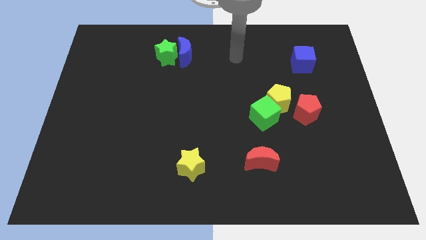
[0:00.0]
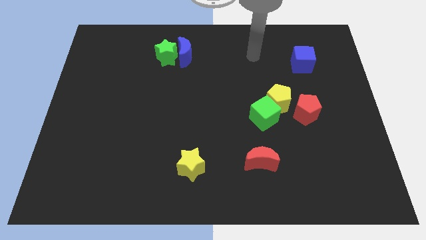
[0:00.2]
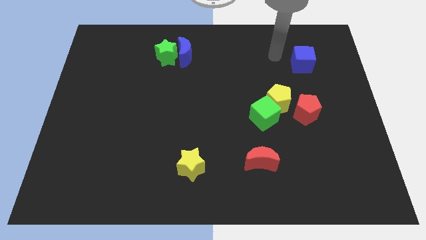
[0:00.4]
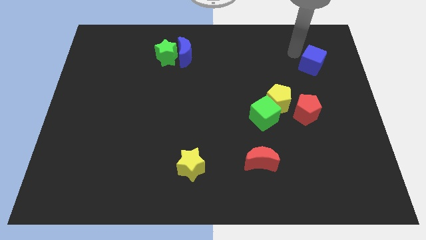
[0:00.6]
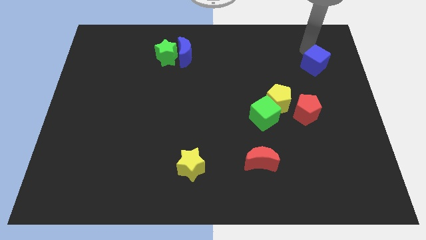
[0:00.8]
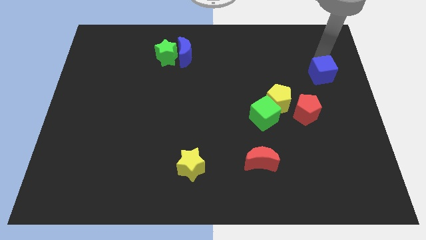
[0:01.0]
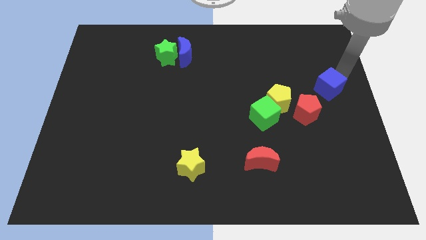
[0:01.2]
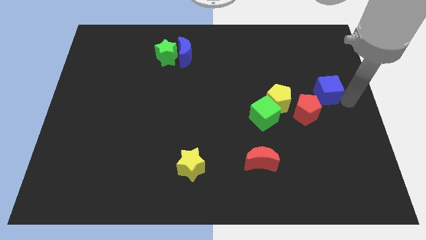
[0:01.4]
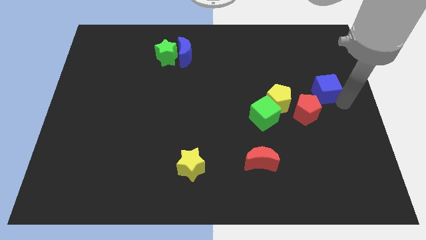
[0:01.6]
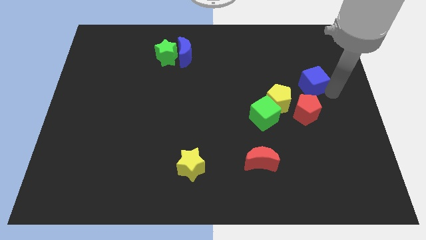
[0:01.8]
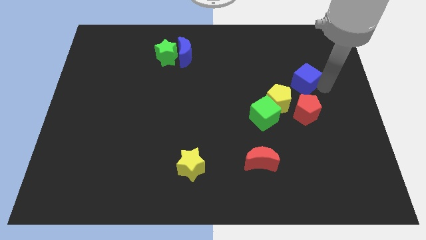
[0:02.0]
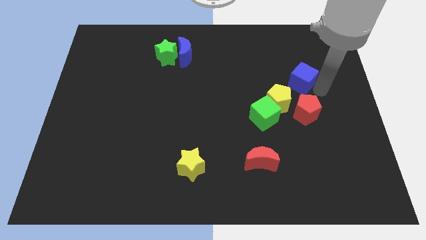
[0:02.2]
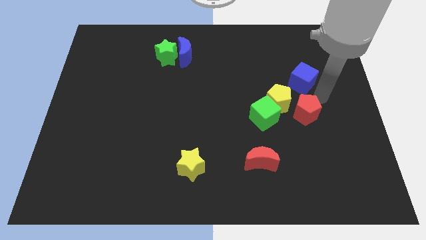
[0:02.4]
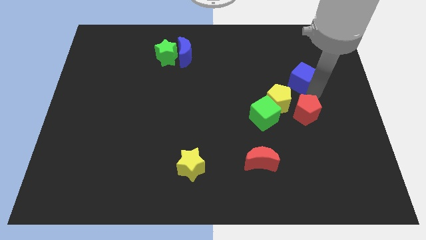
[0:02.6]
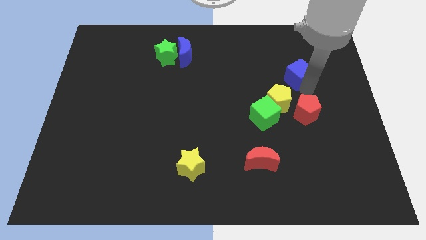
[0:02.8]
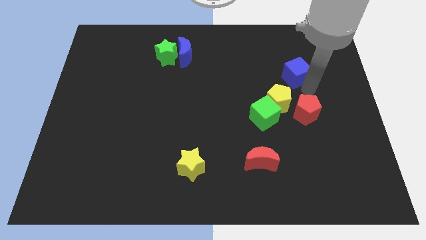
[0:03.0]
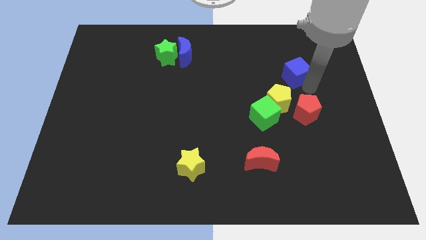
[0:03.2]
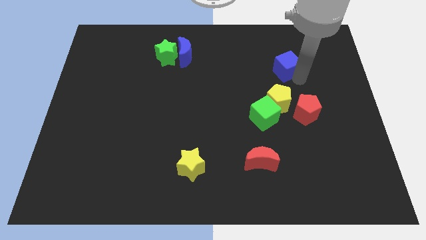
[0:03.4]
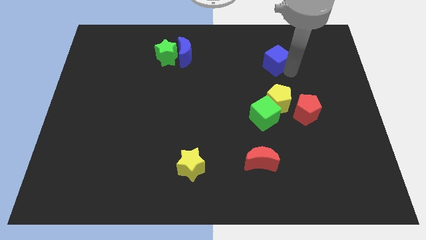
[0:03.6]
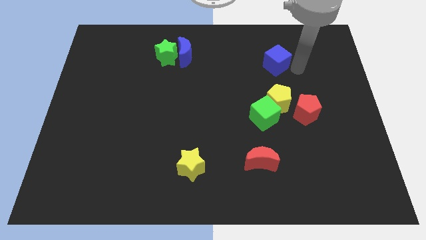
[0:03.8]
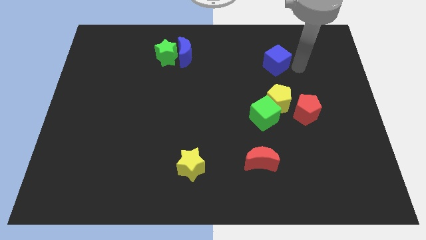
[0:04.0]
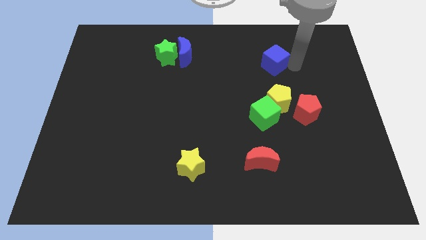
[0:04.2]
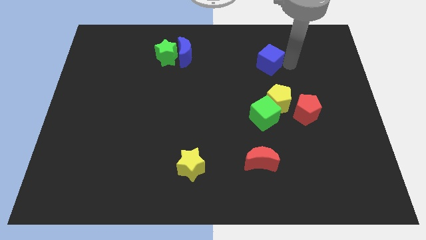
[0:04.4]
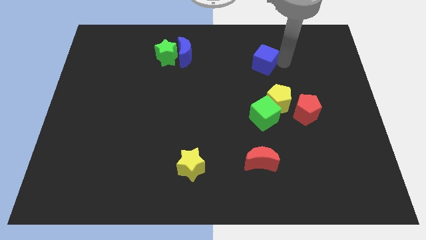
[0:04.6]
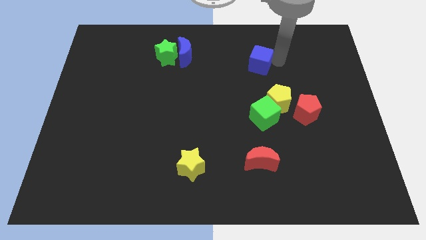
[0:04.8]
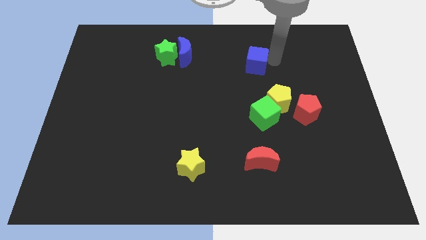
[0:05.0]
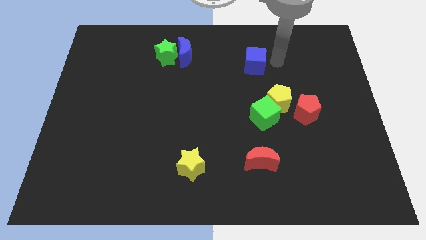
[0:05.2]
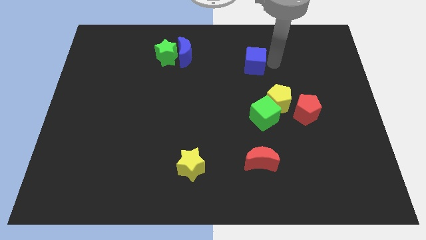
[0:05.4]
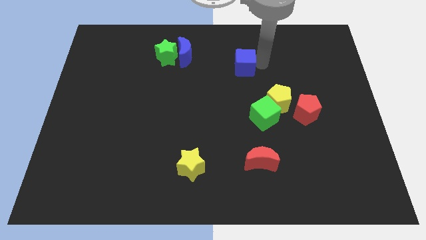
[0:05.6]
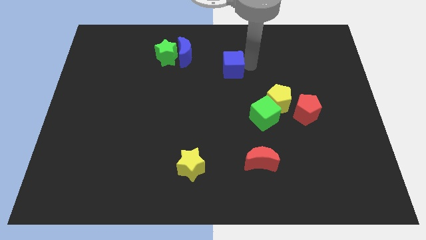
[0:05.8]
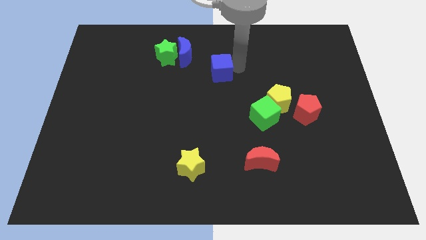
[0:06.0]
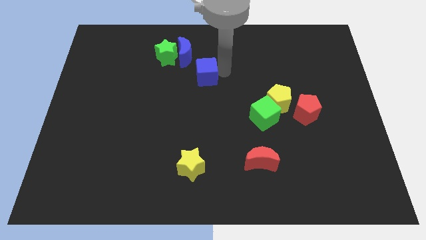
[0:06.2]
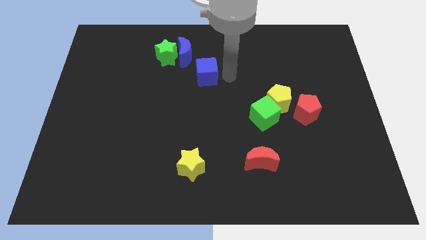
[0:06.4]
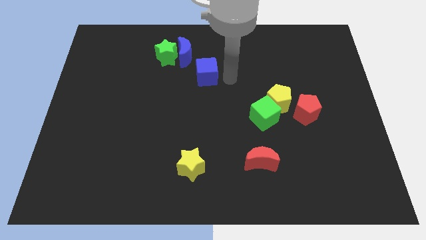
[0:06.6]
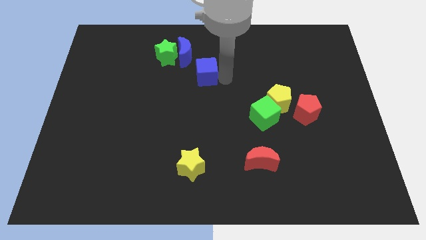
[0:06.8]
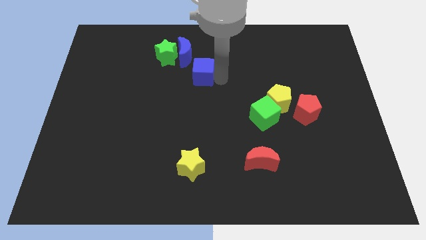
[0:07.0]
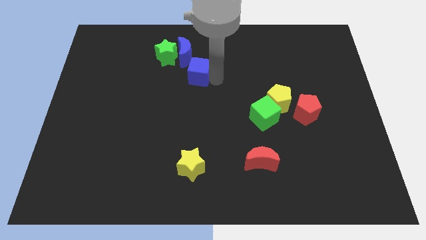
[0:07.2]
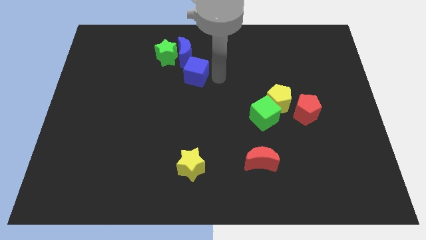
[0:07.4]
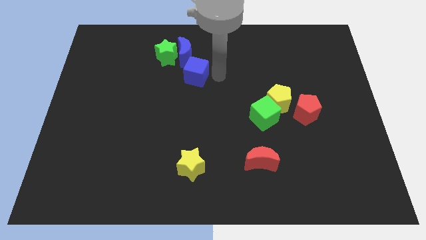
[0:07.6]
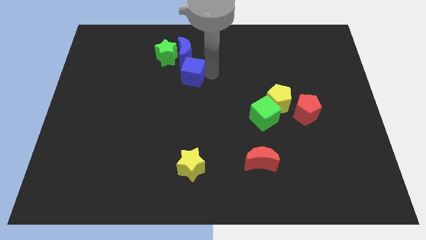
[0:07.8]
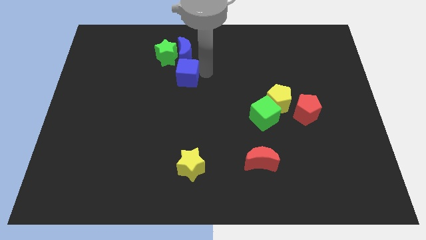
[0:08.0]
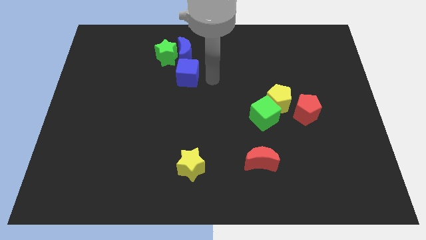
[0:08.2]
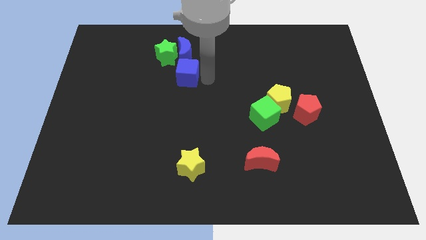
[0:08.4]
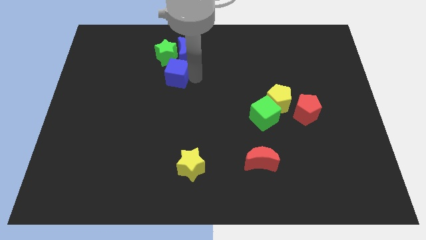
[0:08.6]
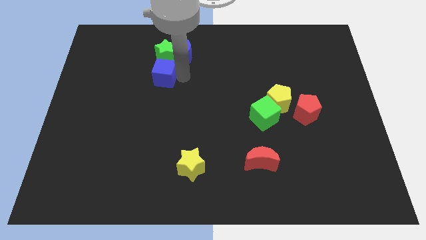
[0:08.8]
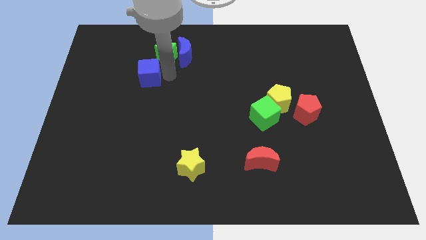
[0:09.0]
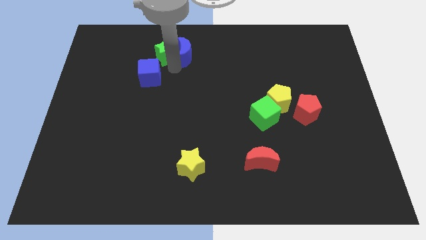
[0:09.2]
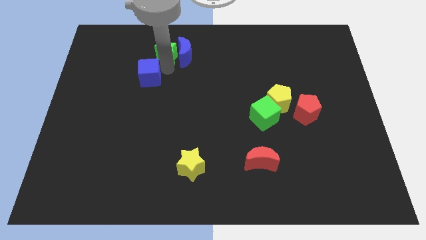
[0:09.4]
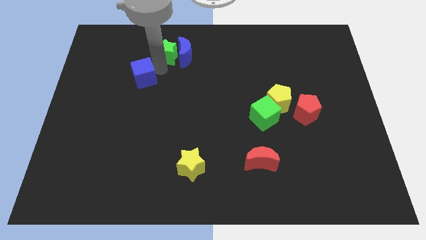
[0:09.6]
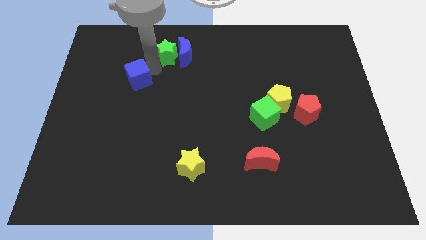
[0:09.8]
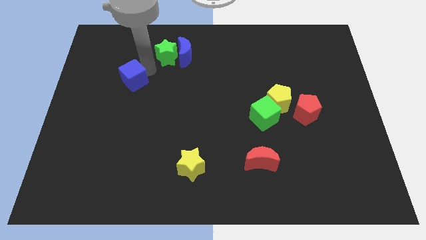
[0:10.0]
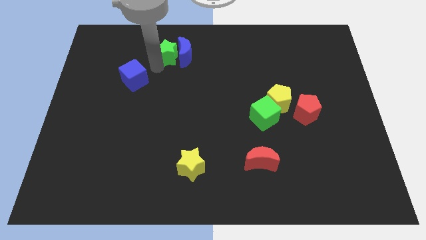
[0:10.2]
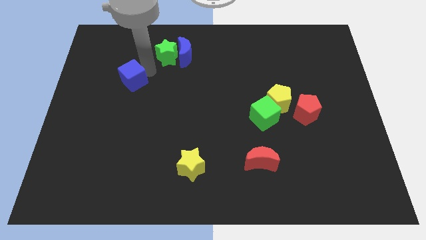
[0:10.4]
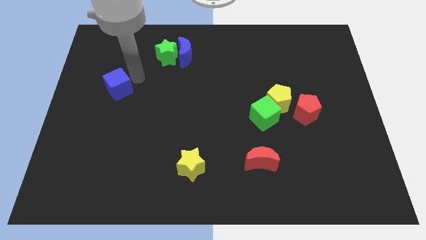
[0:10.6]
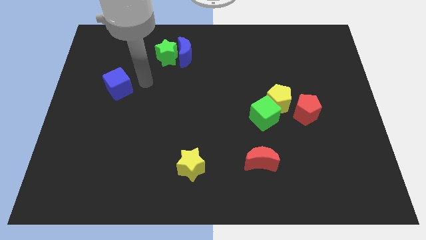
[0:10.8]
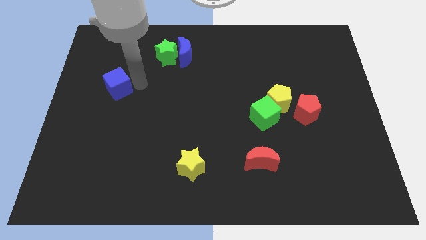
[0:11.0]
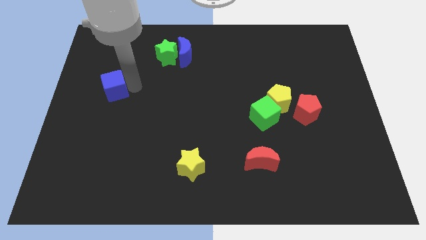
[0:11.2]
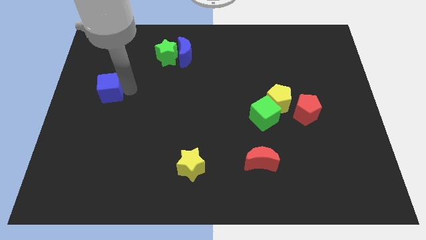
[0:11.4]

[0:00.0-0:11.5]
move the blue cube to the left side of the board

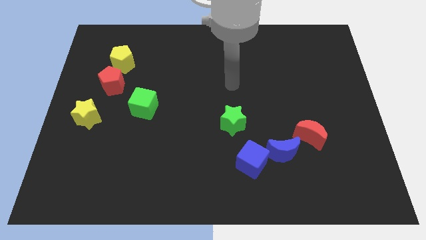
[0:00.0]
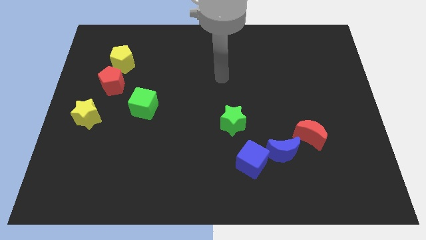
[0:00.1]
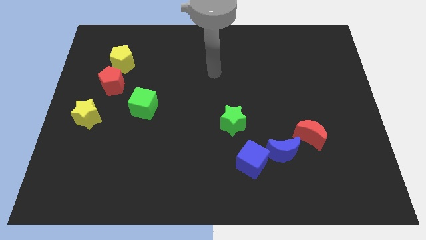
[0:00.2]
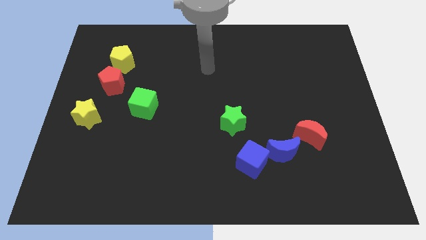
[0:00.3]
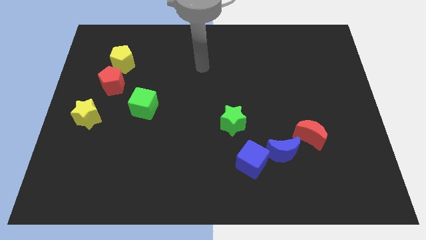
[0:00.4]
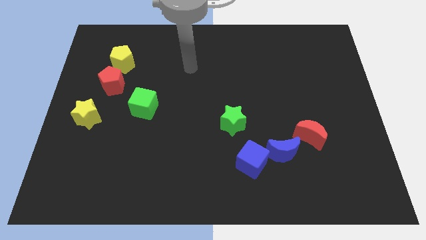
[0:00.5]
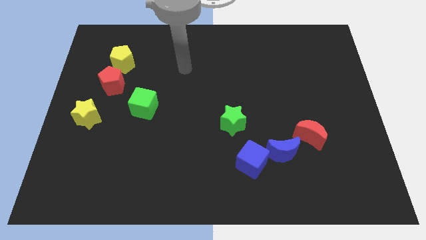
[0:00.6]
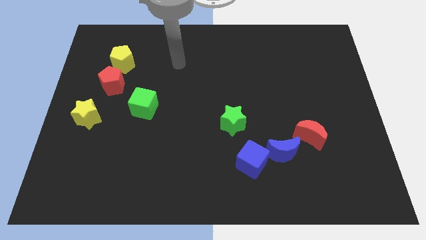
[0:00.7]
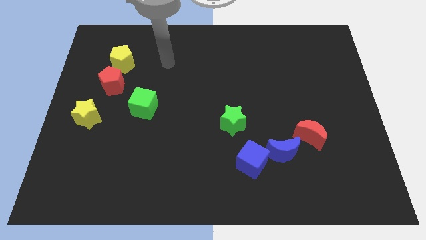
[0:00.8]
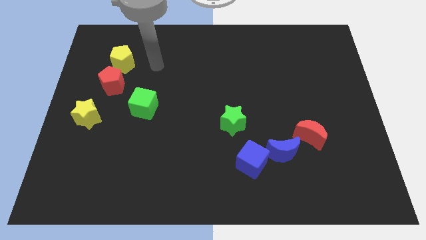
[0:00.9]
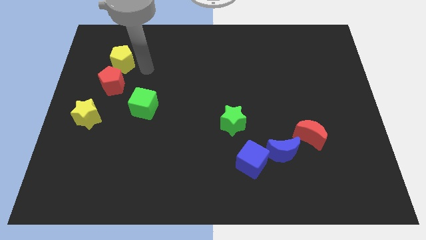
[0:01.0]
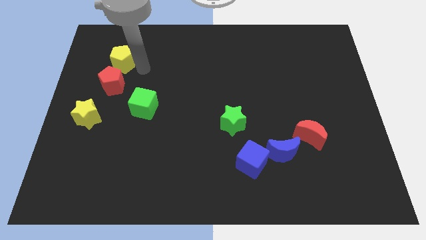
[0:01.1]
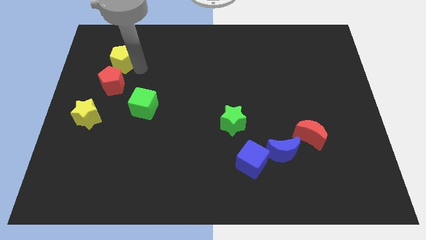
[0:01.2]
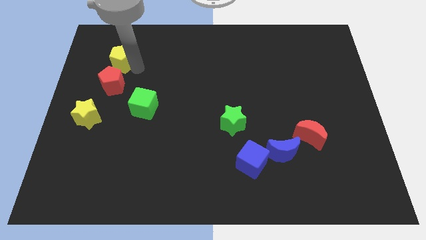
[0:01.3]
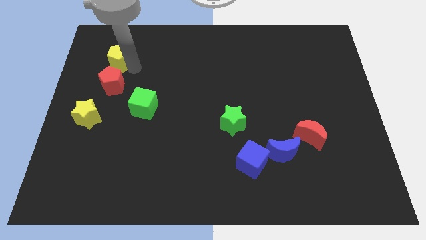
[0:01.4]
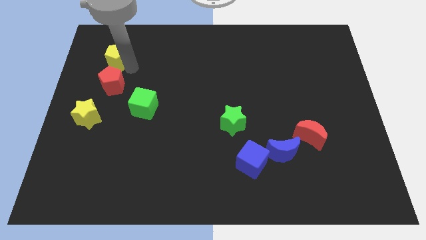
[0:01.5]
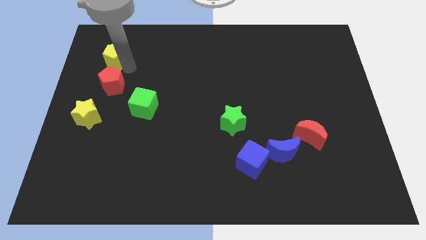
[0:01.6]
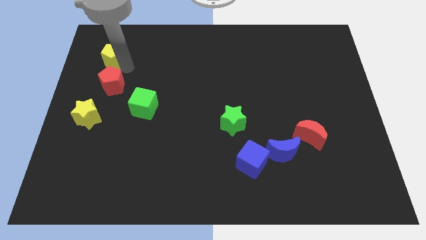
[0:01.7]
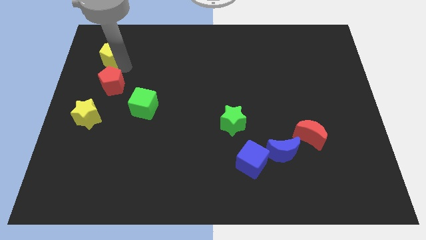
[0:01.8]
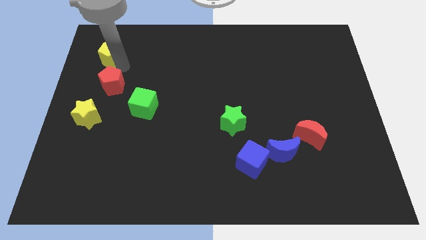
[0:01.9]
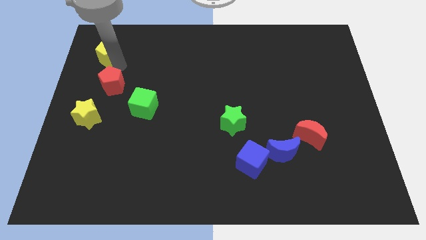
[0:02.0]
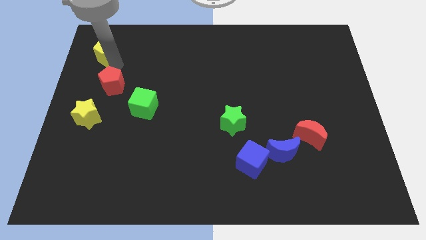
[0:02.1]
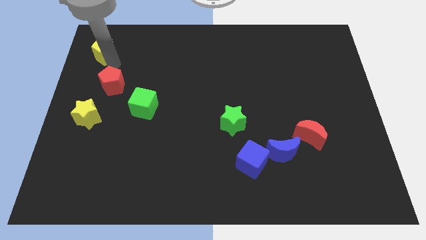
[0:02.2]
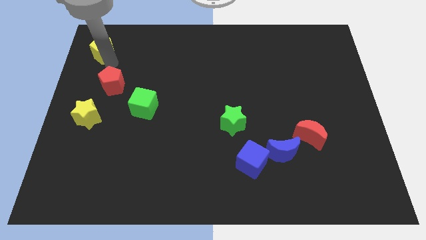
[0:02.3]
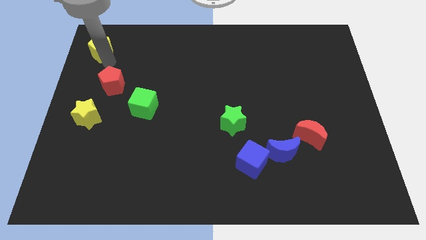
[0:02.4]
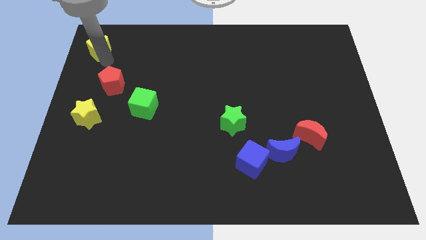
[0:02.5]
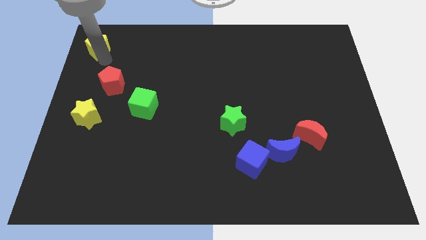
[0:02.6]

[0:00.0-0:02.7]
push the yellow pentagon to the upper left corner
